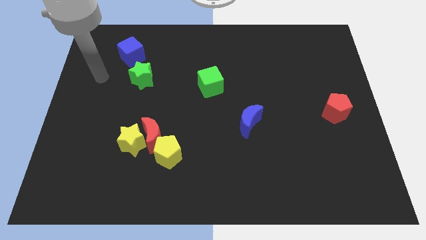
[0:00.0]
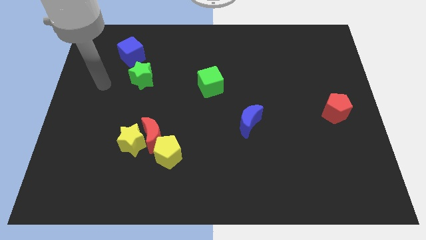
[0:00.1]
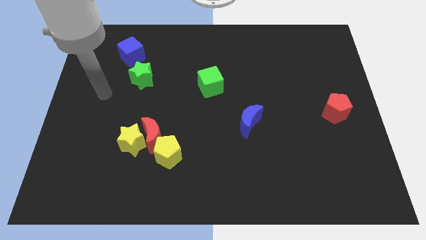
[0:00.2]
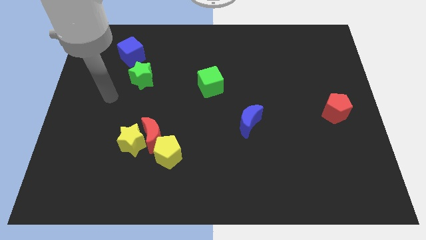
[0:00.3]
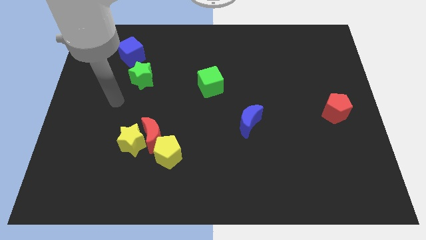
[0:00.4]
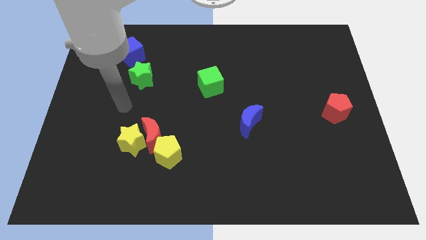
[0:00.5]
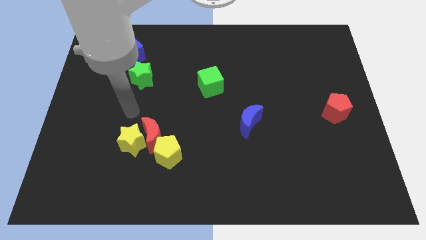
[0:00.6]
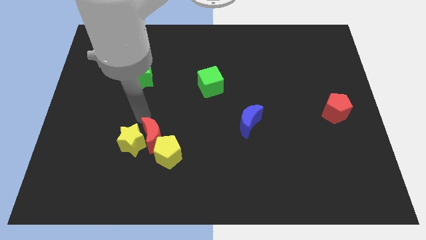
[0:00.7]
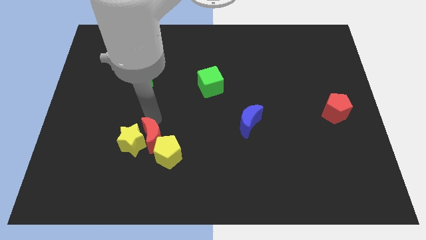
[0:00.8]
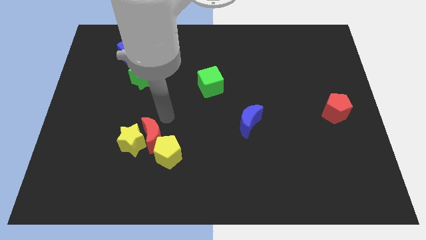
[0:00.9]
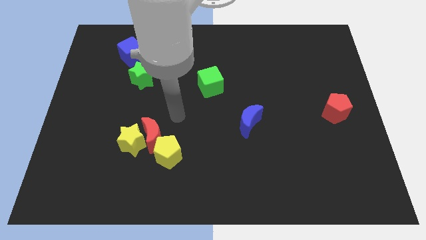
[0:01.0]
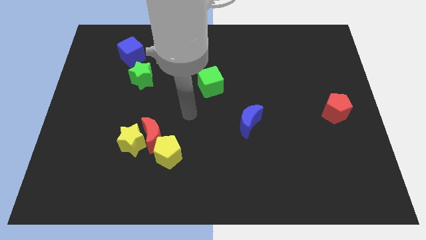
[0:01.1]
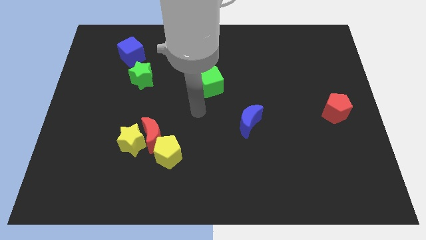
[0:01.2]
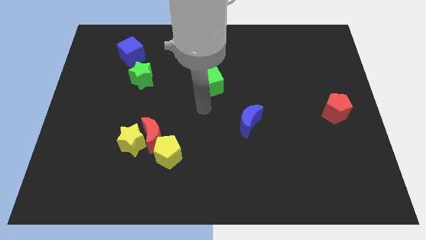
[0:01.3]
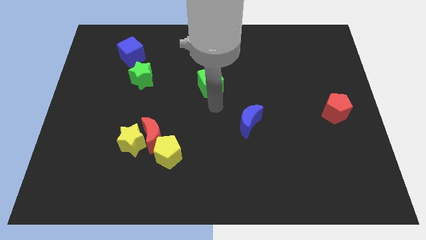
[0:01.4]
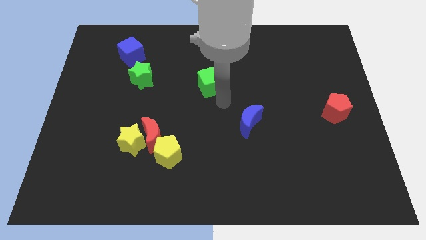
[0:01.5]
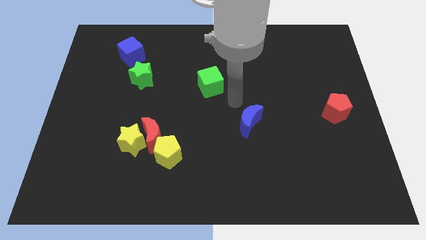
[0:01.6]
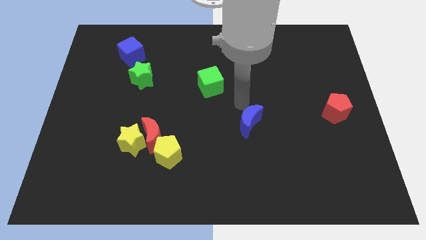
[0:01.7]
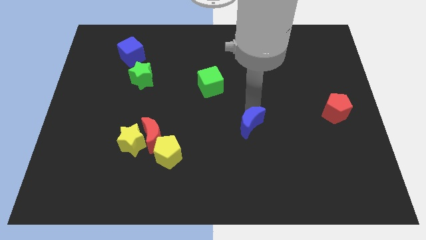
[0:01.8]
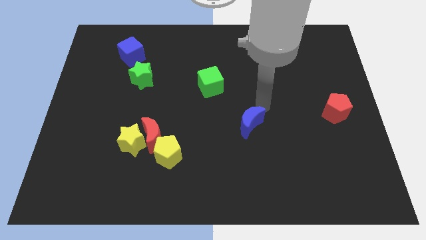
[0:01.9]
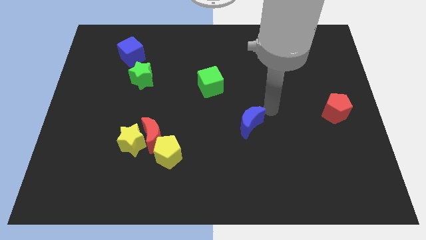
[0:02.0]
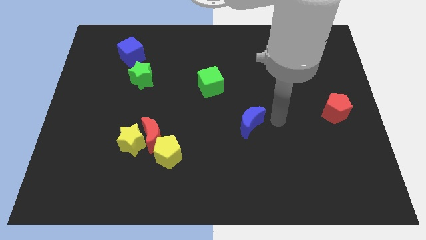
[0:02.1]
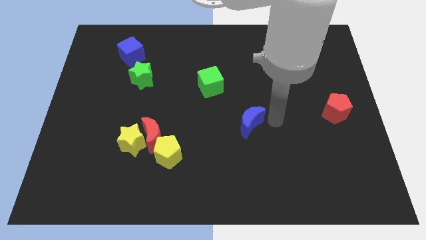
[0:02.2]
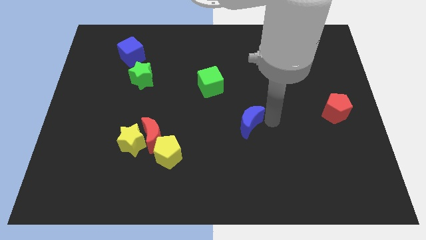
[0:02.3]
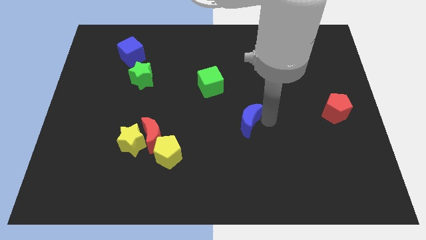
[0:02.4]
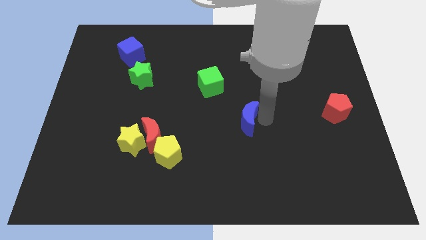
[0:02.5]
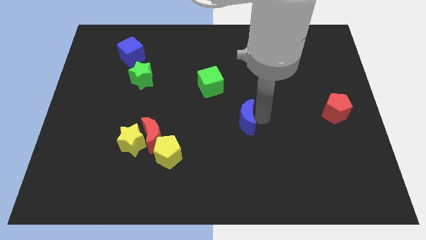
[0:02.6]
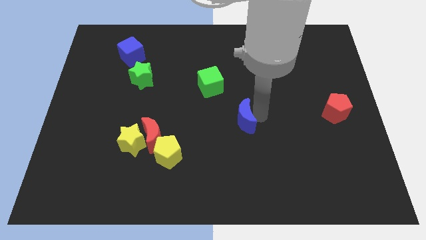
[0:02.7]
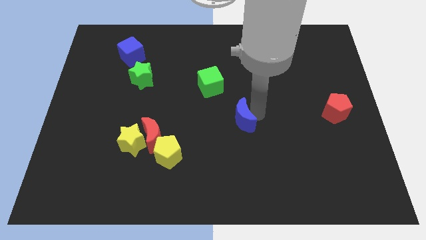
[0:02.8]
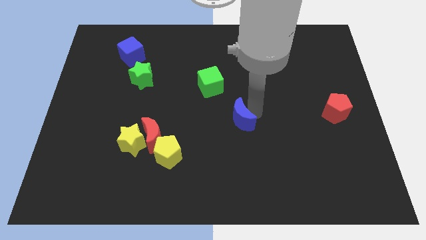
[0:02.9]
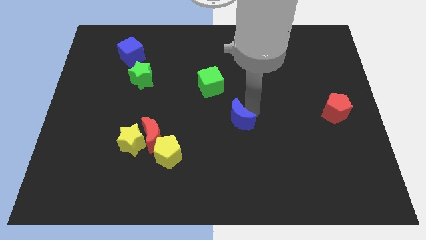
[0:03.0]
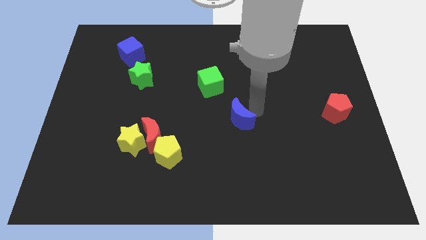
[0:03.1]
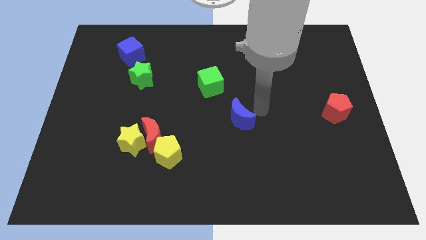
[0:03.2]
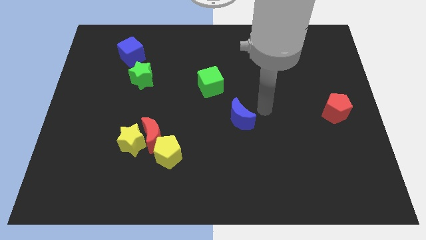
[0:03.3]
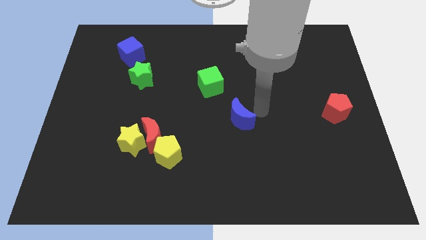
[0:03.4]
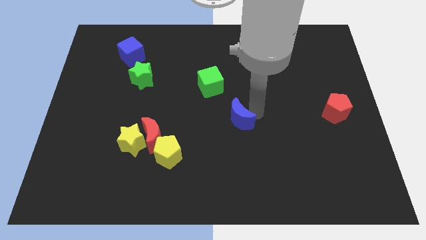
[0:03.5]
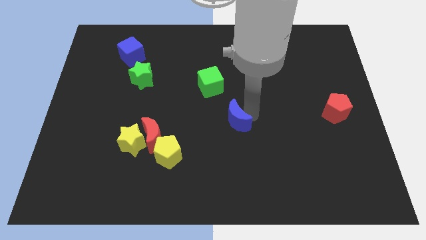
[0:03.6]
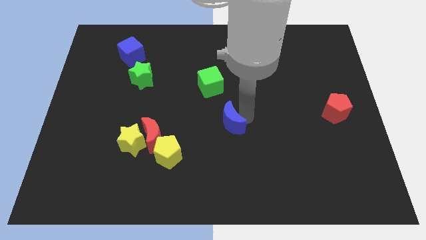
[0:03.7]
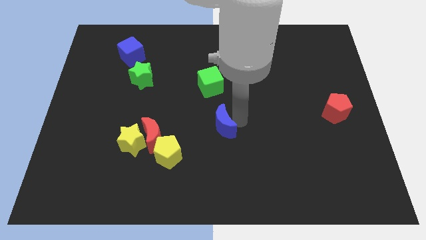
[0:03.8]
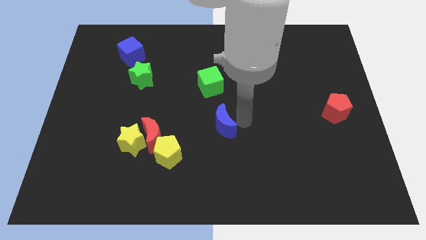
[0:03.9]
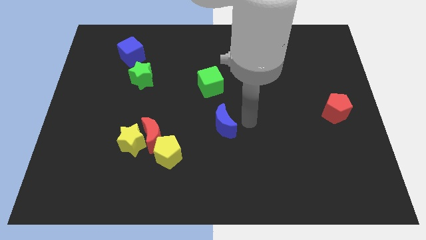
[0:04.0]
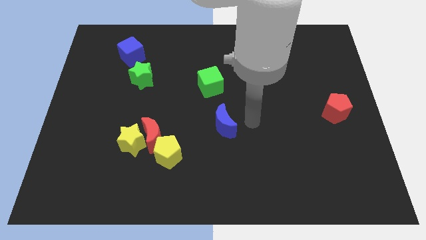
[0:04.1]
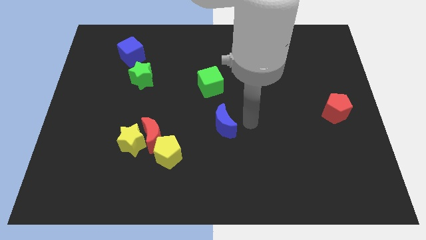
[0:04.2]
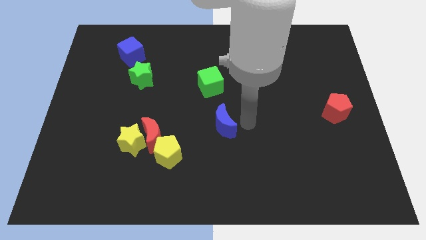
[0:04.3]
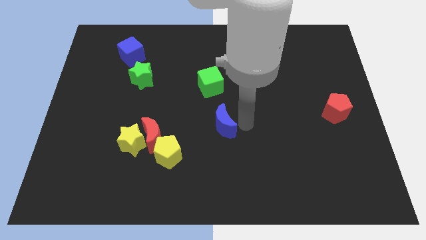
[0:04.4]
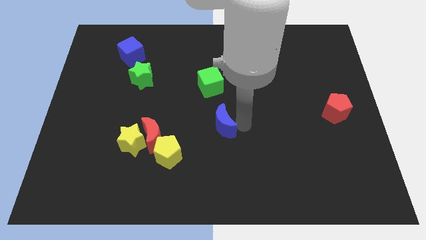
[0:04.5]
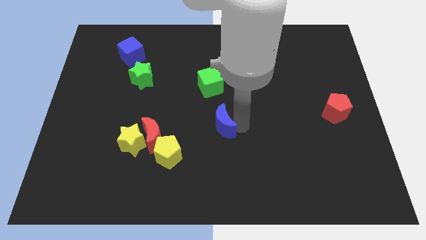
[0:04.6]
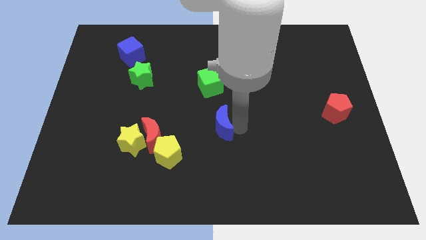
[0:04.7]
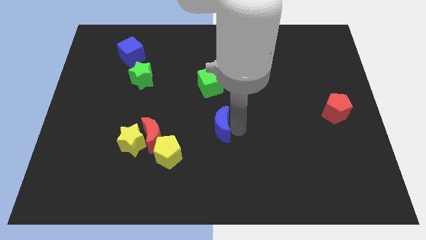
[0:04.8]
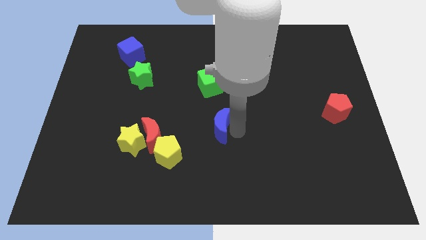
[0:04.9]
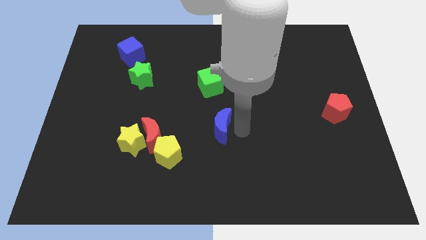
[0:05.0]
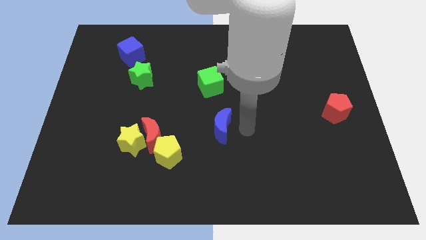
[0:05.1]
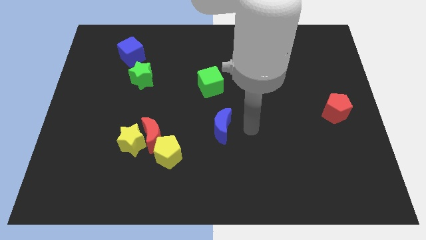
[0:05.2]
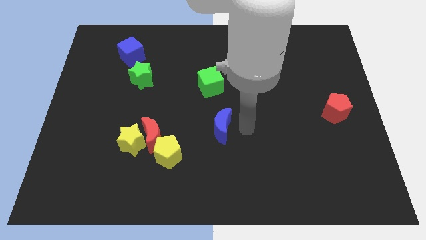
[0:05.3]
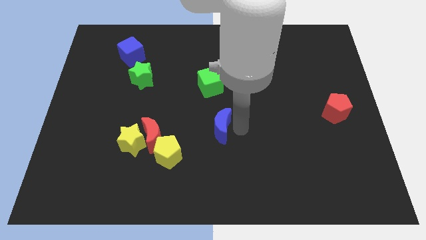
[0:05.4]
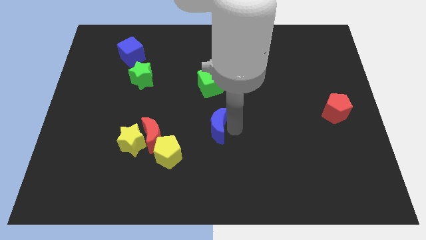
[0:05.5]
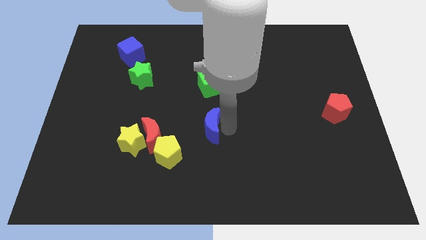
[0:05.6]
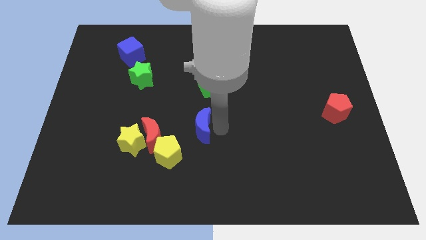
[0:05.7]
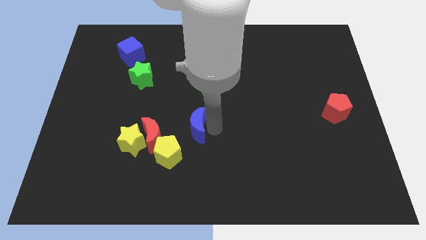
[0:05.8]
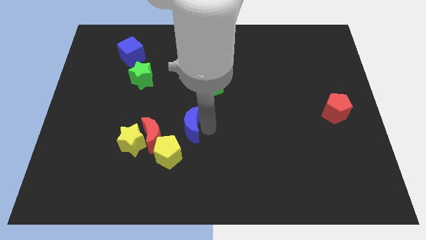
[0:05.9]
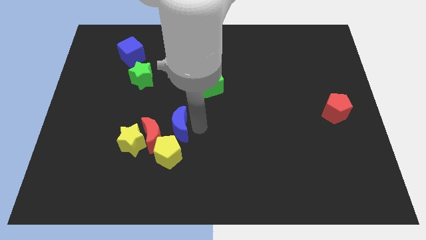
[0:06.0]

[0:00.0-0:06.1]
push the blue moon close to the red moon

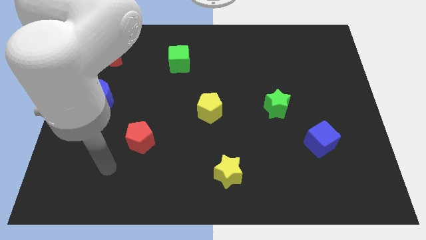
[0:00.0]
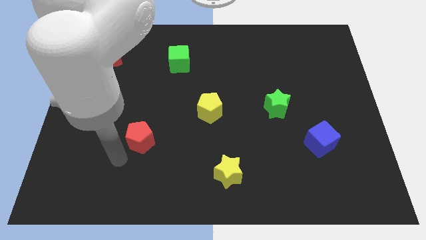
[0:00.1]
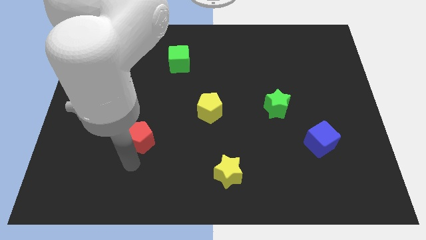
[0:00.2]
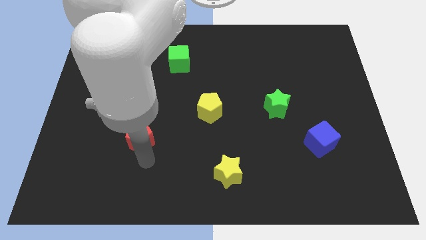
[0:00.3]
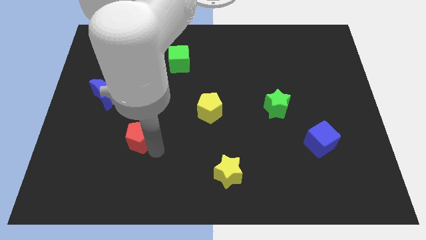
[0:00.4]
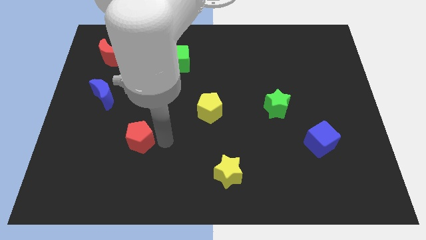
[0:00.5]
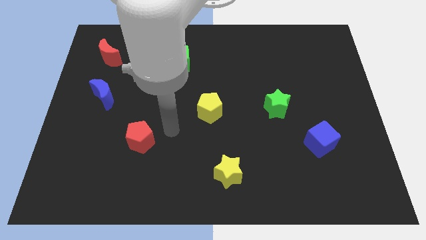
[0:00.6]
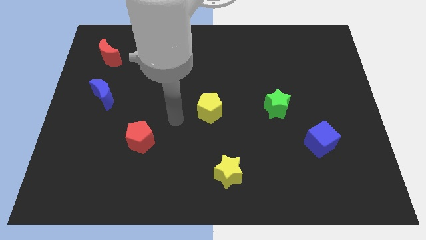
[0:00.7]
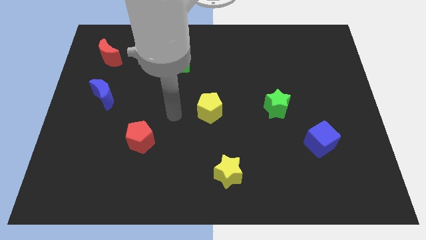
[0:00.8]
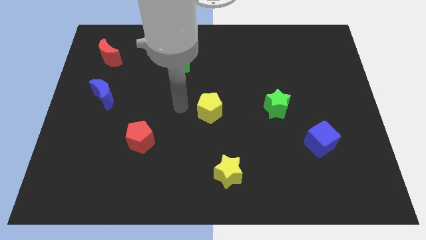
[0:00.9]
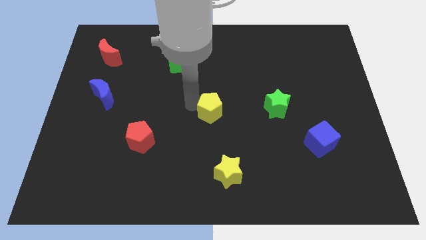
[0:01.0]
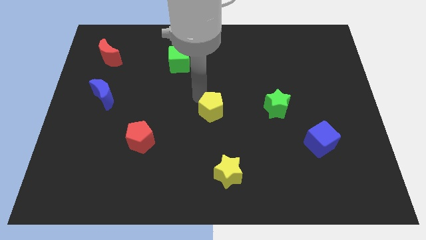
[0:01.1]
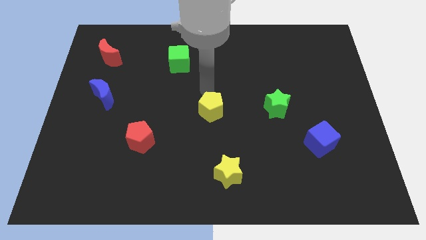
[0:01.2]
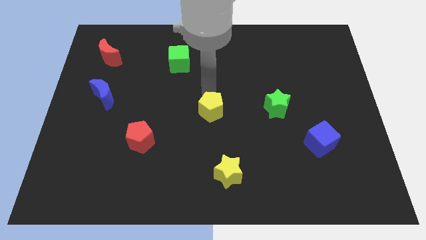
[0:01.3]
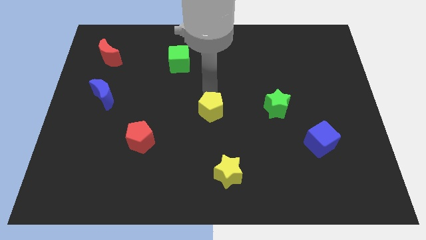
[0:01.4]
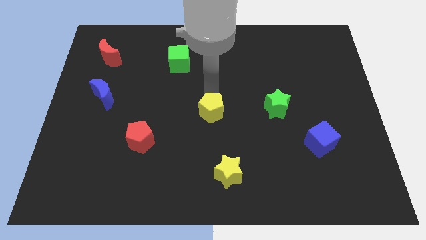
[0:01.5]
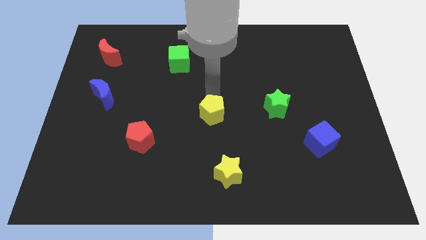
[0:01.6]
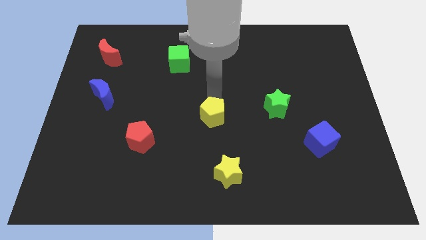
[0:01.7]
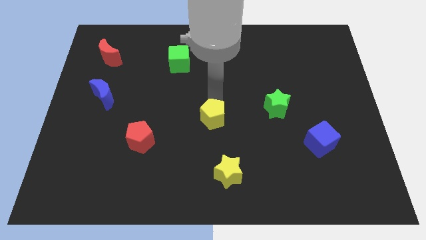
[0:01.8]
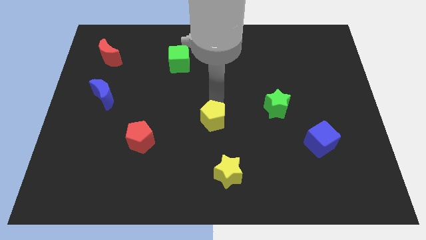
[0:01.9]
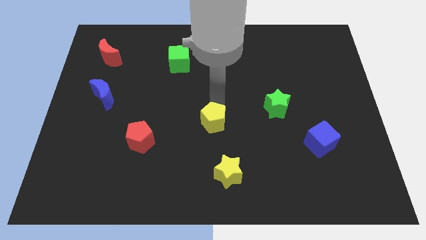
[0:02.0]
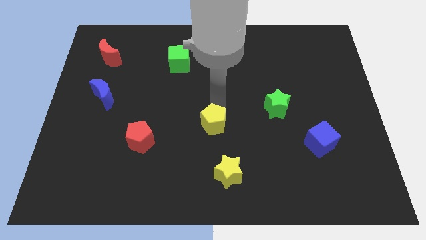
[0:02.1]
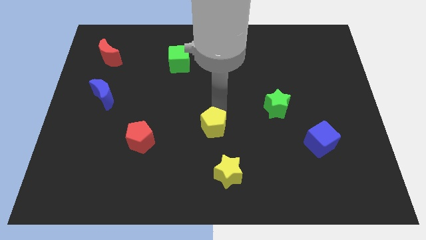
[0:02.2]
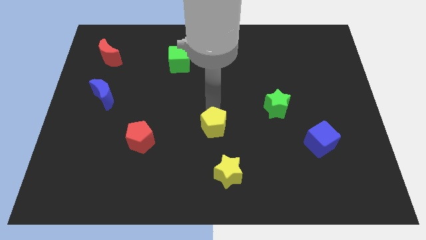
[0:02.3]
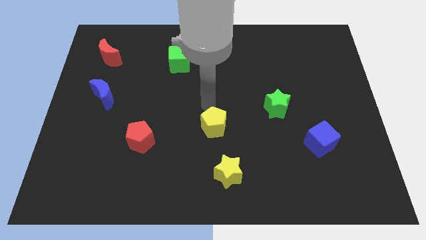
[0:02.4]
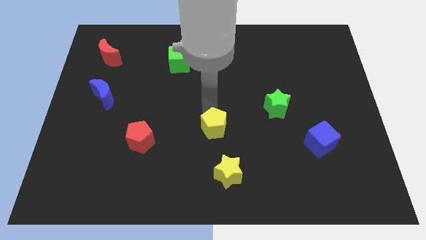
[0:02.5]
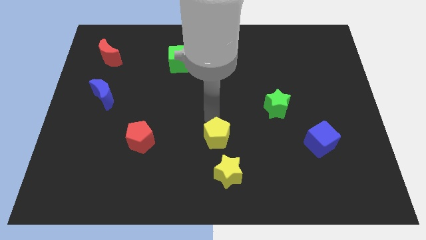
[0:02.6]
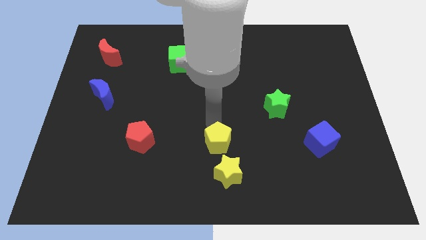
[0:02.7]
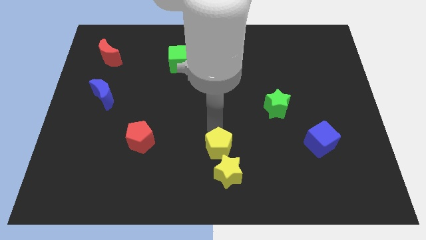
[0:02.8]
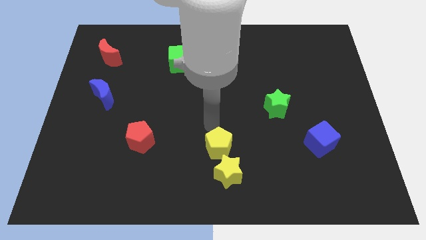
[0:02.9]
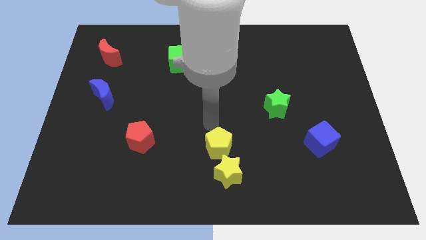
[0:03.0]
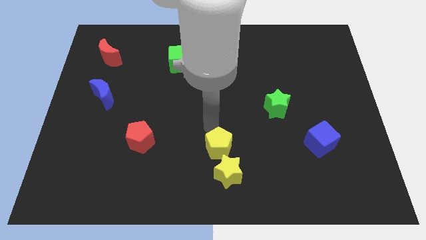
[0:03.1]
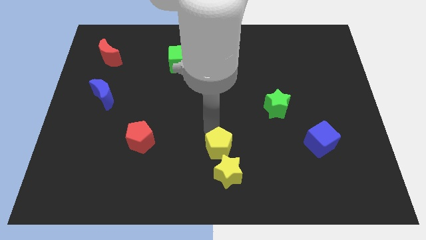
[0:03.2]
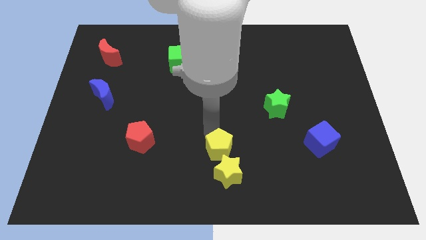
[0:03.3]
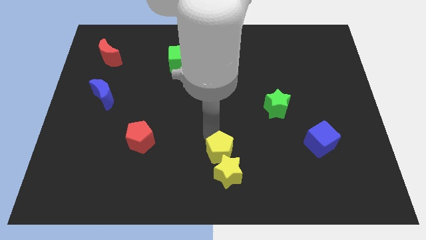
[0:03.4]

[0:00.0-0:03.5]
move the yellow pentagon next to the yellow star
